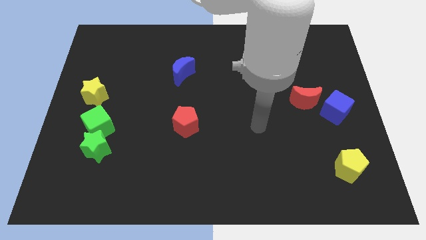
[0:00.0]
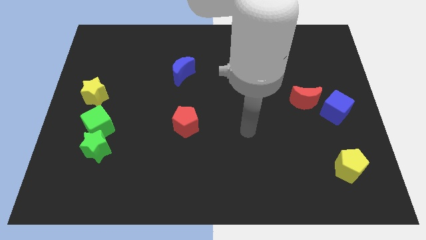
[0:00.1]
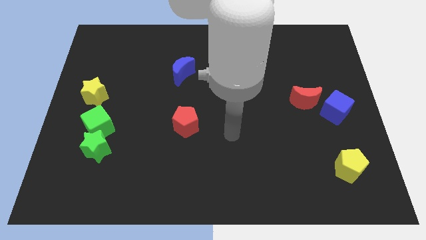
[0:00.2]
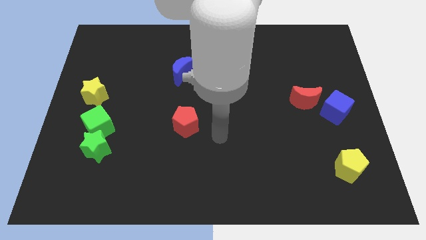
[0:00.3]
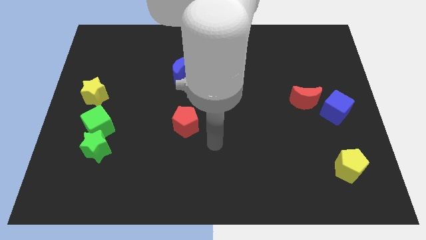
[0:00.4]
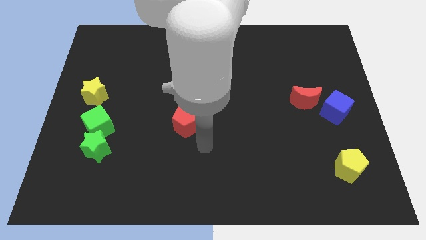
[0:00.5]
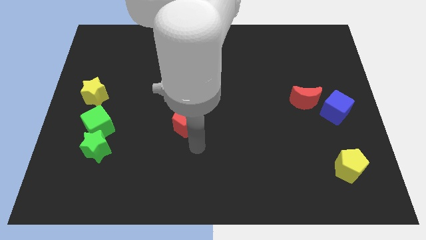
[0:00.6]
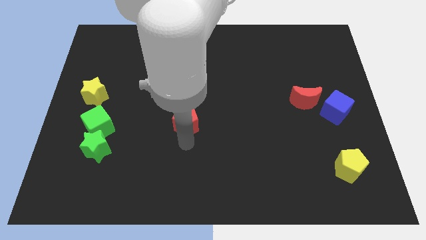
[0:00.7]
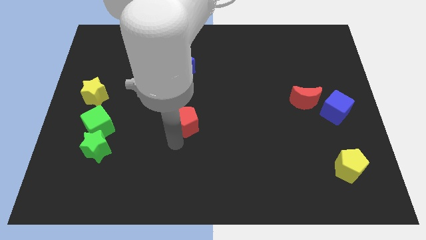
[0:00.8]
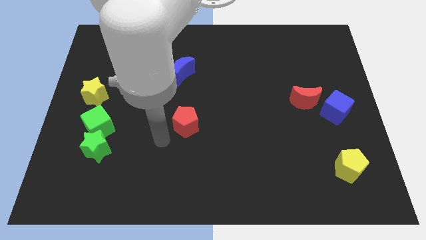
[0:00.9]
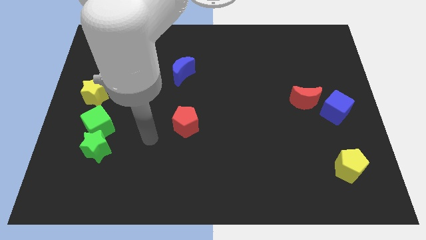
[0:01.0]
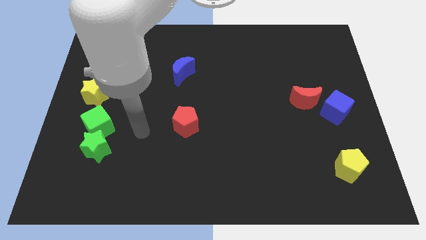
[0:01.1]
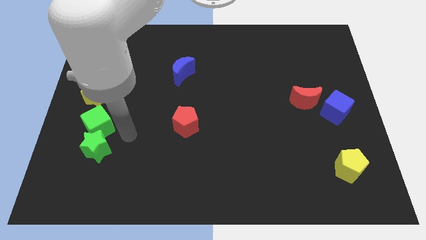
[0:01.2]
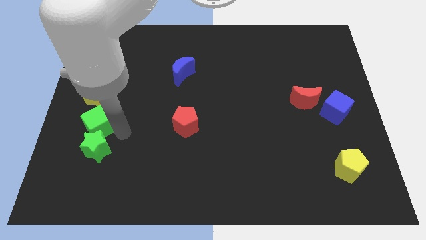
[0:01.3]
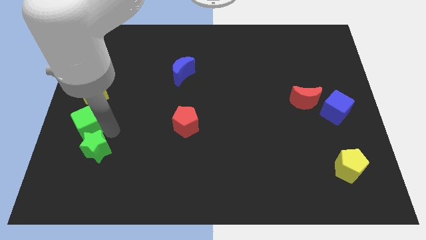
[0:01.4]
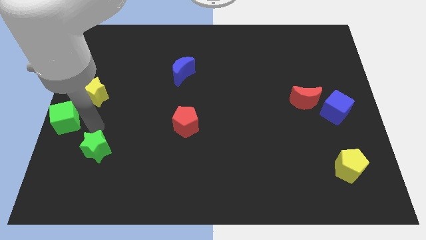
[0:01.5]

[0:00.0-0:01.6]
separate the green star from the green cube

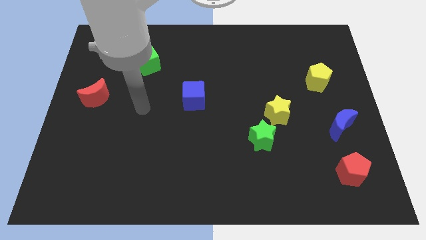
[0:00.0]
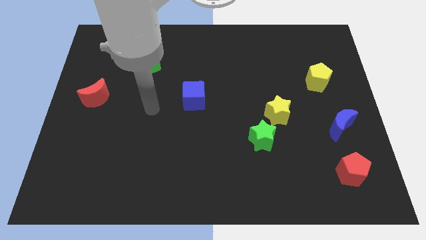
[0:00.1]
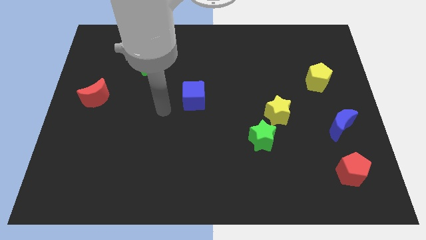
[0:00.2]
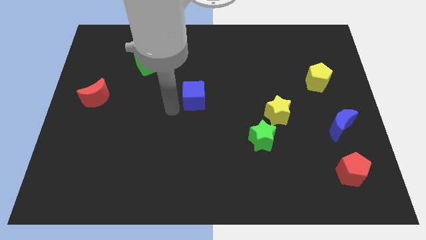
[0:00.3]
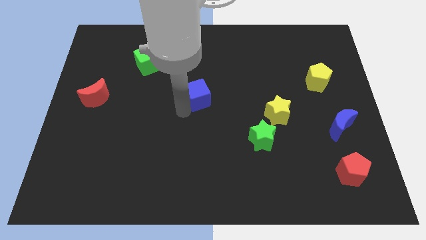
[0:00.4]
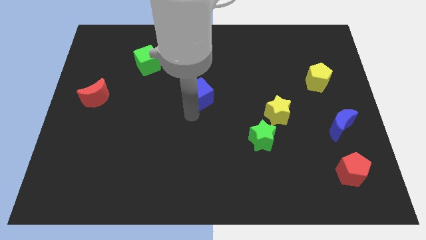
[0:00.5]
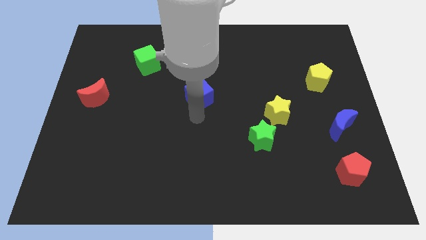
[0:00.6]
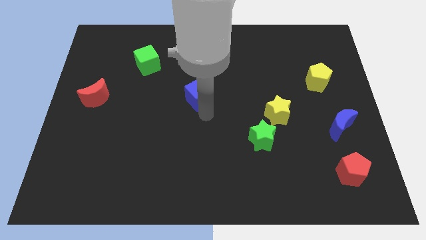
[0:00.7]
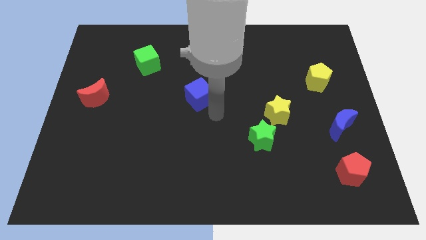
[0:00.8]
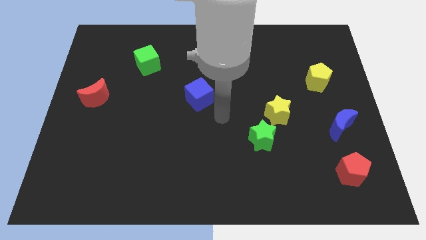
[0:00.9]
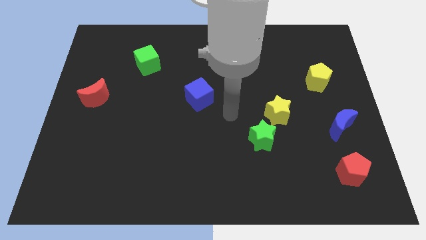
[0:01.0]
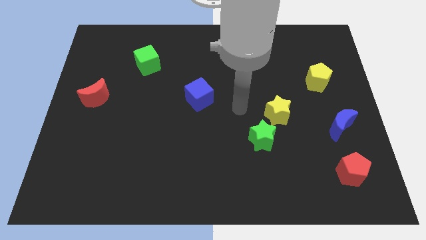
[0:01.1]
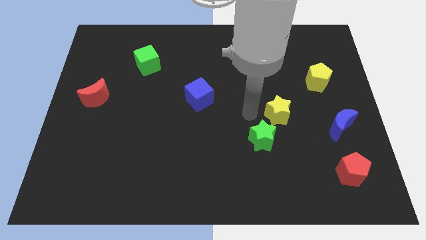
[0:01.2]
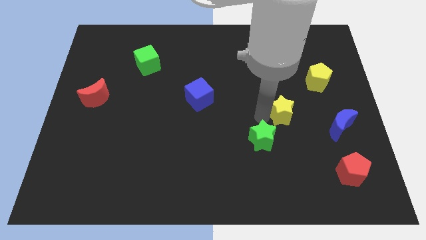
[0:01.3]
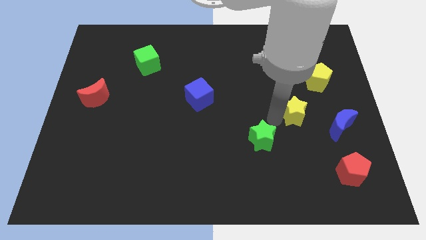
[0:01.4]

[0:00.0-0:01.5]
pull the green star apart from the yellow star

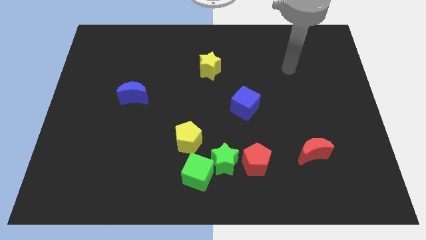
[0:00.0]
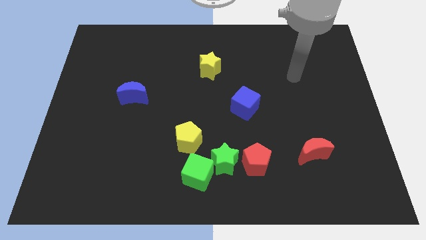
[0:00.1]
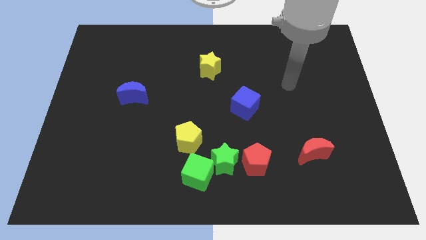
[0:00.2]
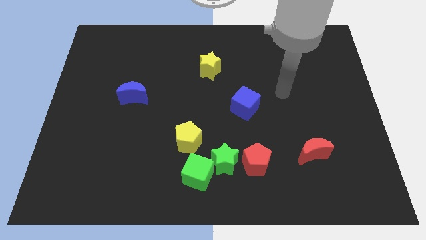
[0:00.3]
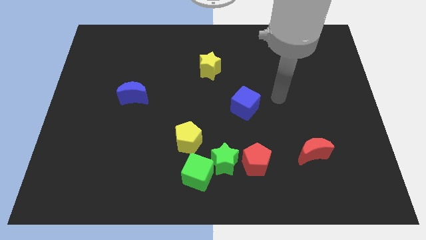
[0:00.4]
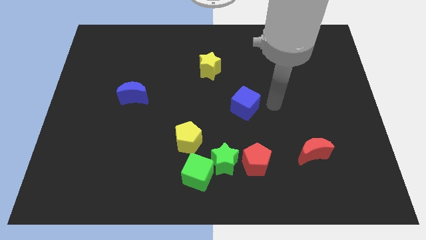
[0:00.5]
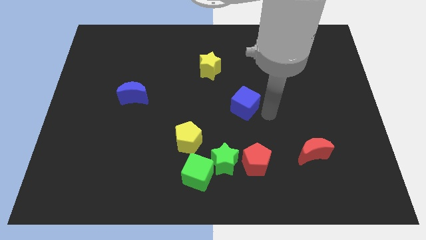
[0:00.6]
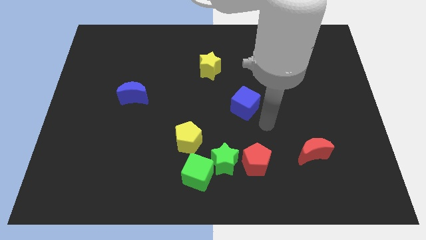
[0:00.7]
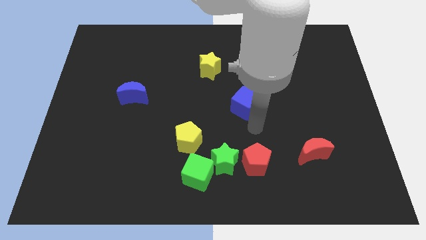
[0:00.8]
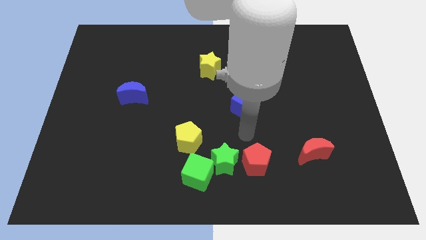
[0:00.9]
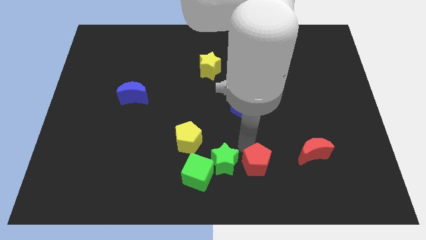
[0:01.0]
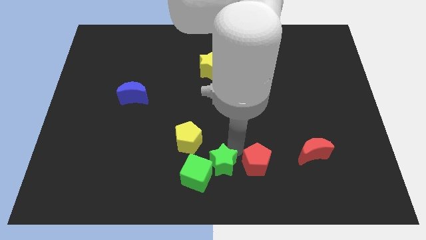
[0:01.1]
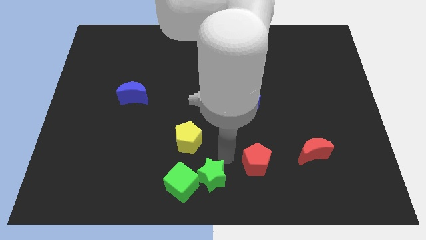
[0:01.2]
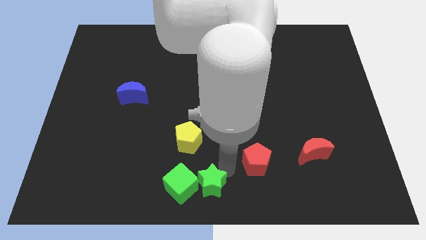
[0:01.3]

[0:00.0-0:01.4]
pull the red pentagon apart from the green star

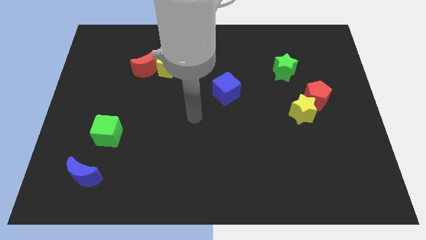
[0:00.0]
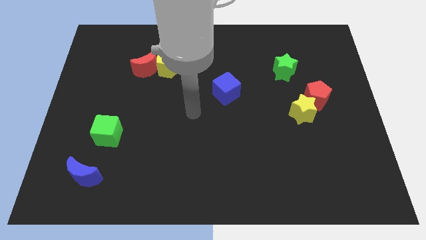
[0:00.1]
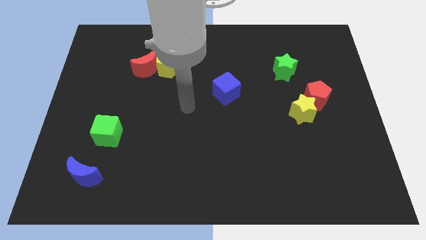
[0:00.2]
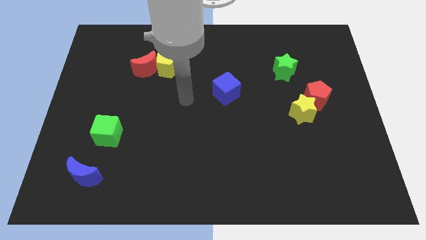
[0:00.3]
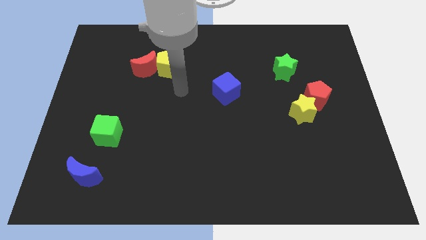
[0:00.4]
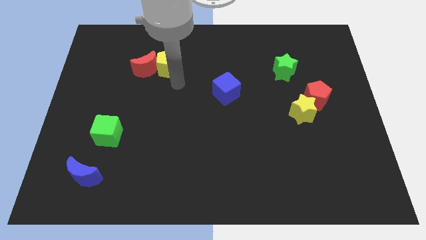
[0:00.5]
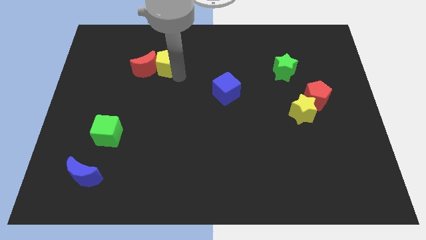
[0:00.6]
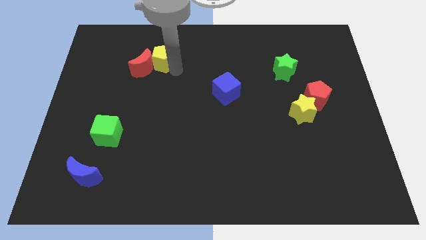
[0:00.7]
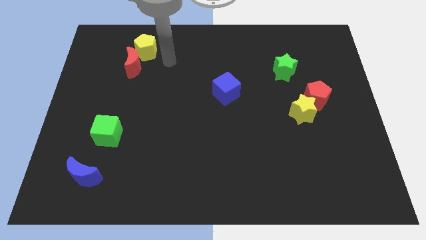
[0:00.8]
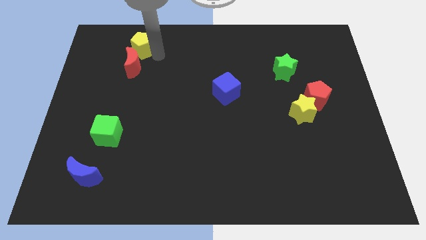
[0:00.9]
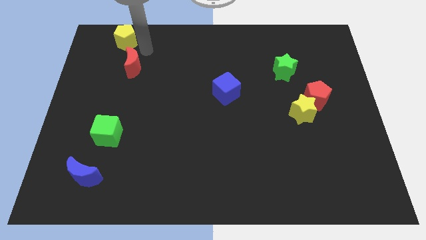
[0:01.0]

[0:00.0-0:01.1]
pull the red moon apart from the yellow pentagon

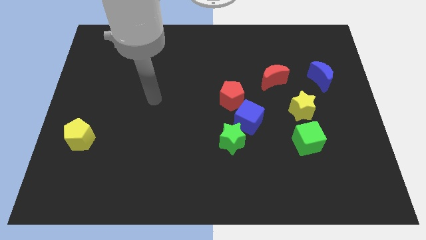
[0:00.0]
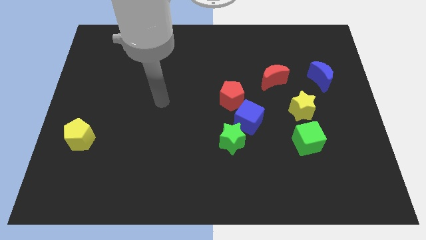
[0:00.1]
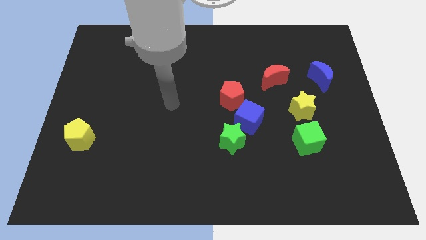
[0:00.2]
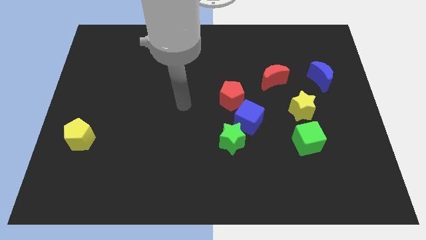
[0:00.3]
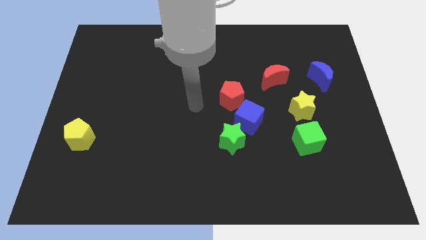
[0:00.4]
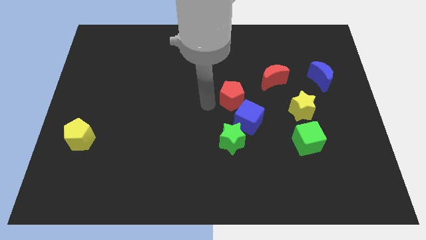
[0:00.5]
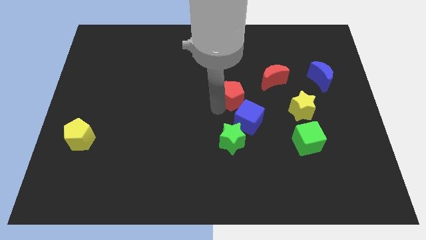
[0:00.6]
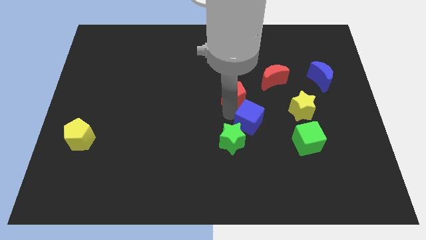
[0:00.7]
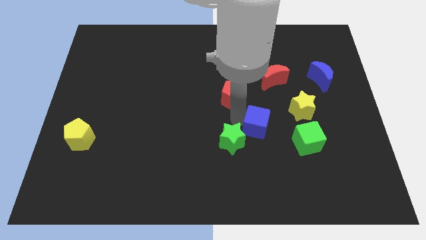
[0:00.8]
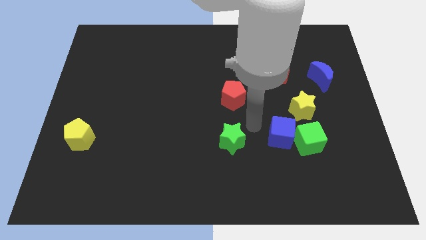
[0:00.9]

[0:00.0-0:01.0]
separate the green star from the blue cube

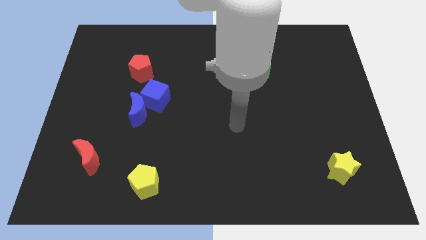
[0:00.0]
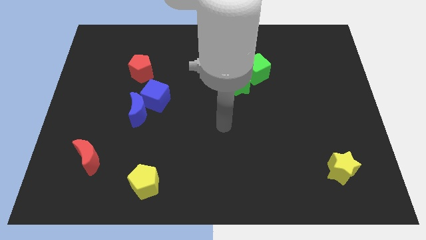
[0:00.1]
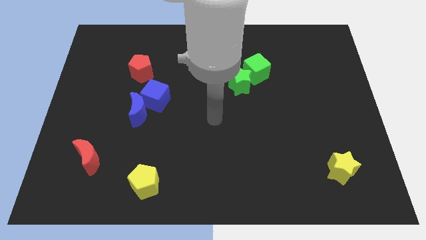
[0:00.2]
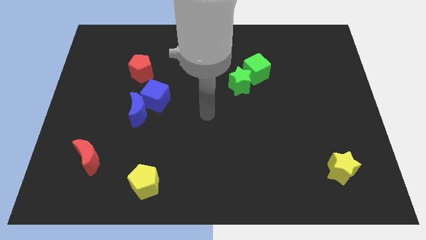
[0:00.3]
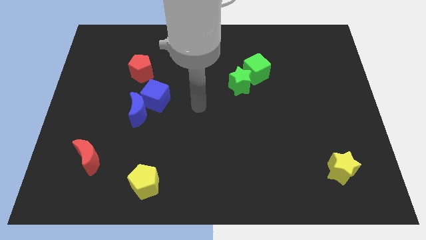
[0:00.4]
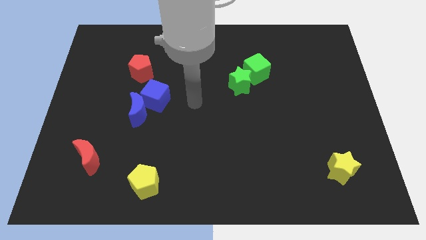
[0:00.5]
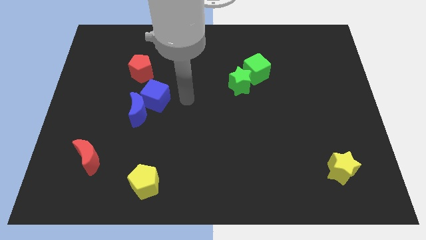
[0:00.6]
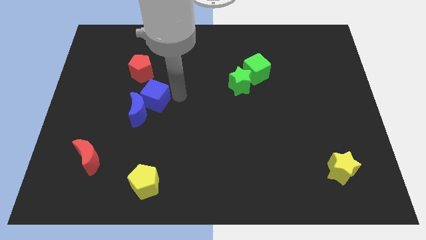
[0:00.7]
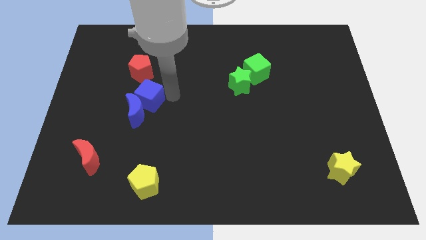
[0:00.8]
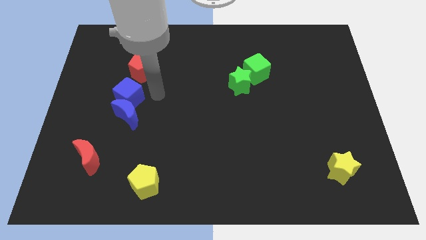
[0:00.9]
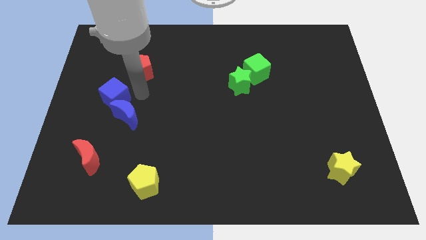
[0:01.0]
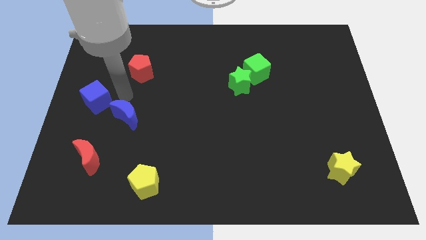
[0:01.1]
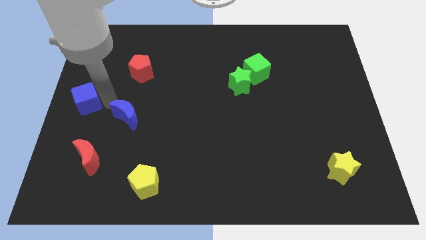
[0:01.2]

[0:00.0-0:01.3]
move the blue moon away from the blue cube

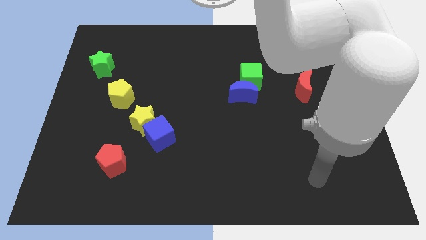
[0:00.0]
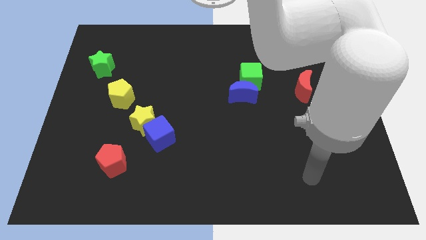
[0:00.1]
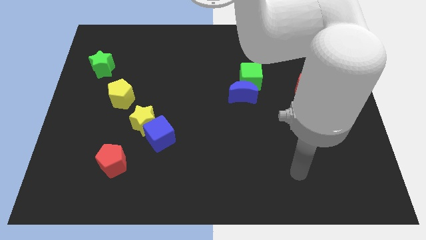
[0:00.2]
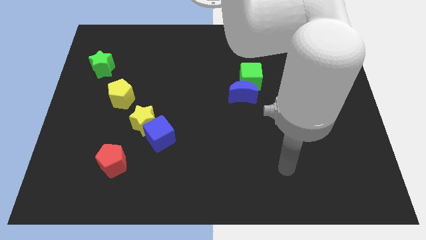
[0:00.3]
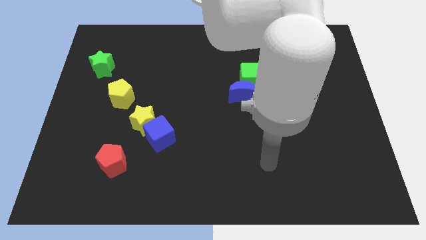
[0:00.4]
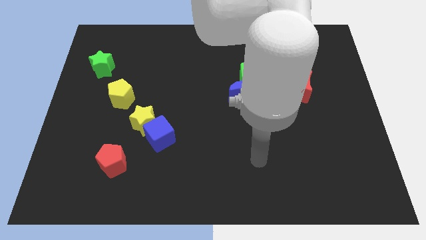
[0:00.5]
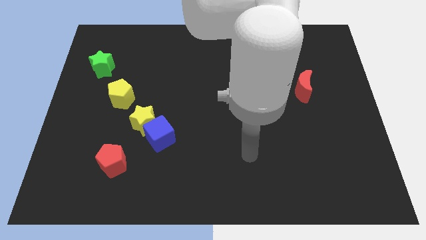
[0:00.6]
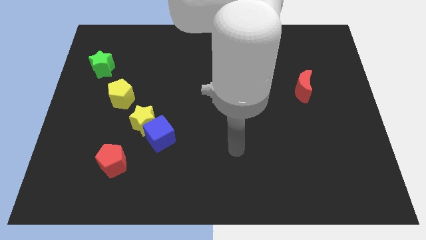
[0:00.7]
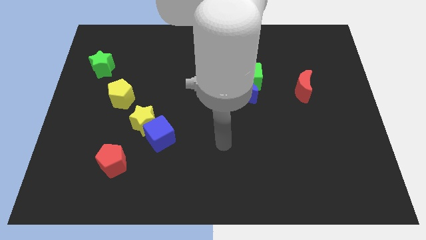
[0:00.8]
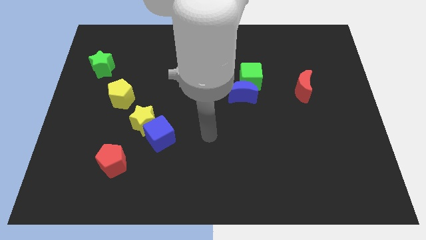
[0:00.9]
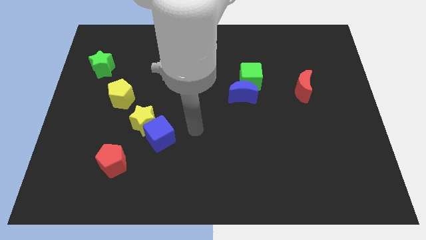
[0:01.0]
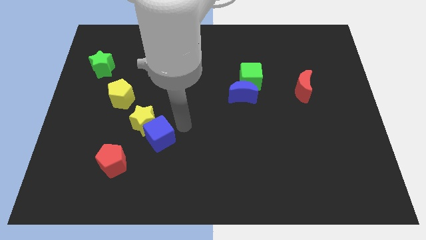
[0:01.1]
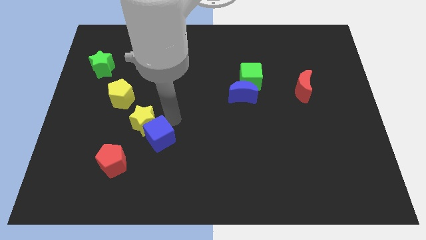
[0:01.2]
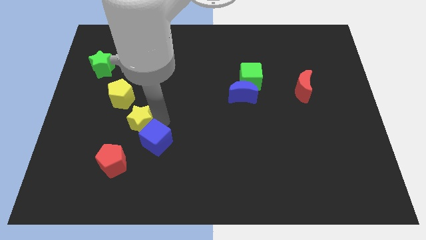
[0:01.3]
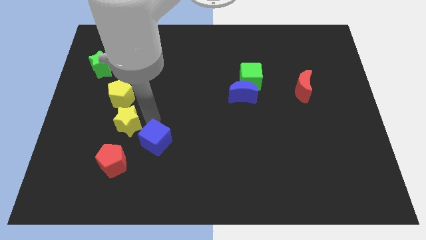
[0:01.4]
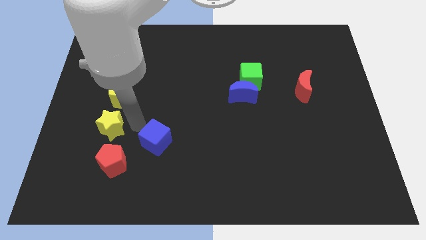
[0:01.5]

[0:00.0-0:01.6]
pull the blue cube apart from the yellow star
